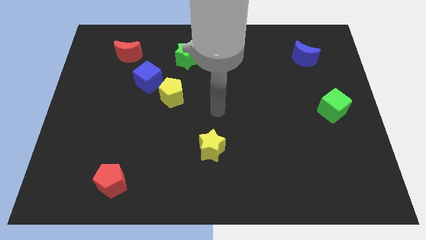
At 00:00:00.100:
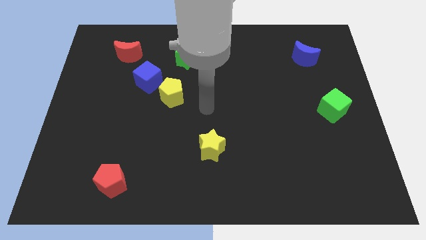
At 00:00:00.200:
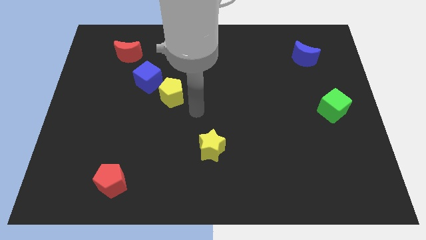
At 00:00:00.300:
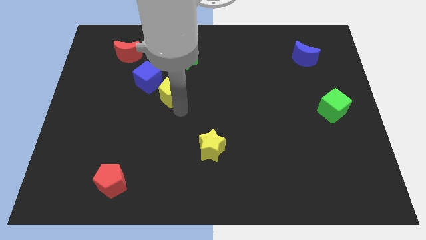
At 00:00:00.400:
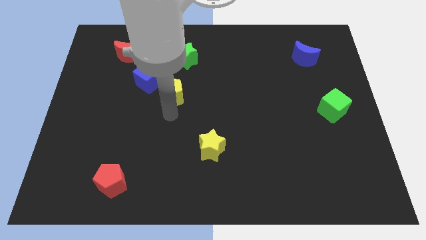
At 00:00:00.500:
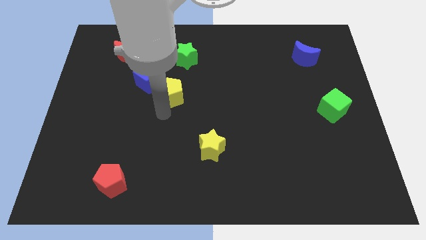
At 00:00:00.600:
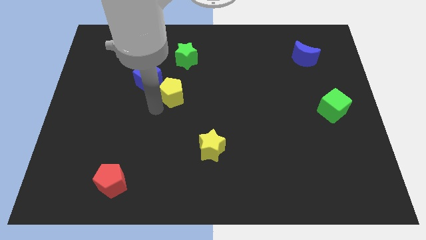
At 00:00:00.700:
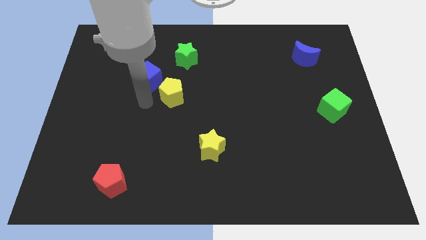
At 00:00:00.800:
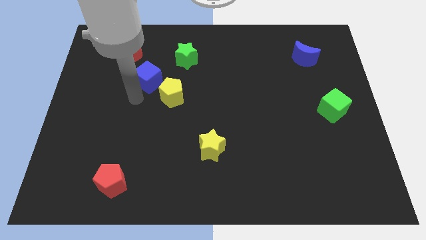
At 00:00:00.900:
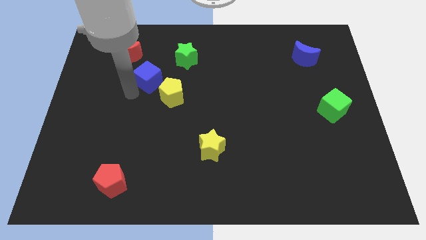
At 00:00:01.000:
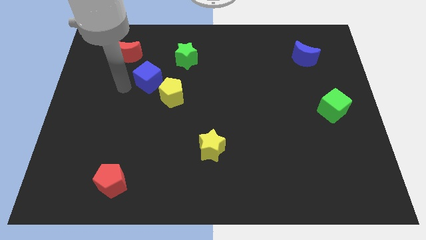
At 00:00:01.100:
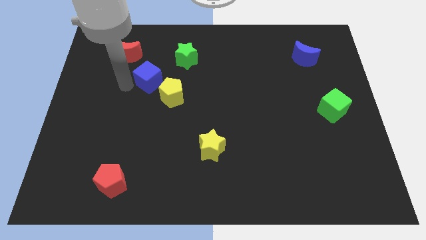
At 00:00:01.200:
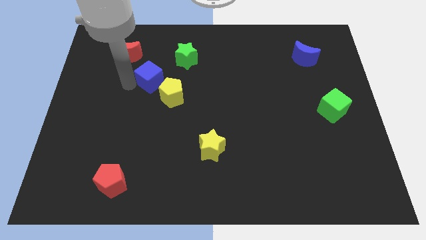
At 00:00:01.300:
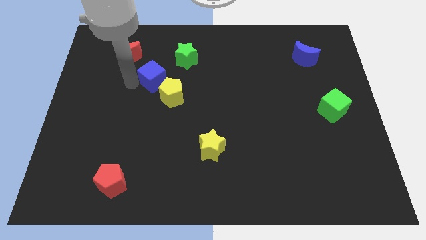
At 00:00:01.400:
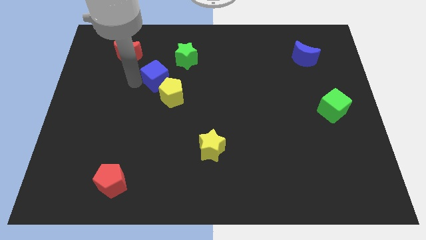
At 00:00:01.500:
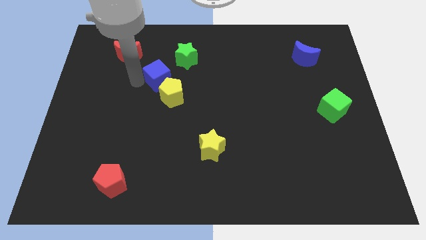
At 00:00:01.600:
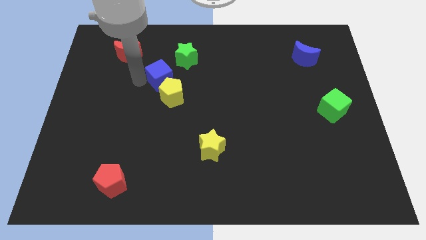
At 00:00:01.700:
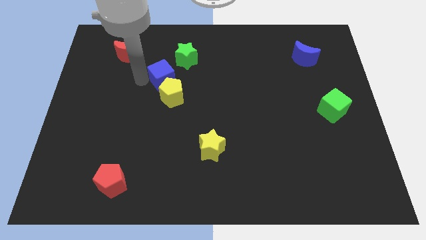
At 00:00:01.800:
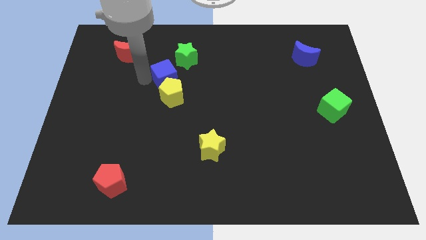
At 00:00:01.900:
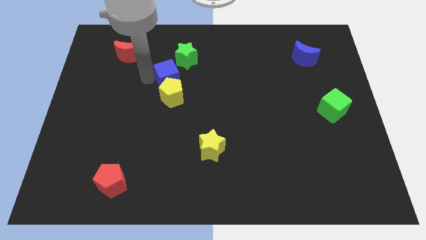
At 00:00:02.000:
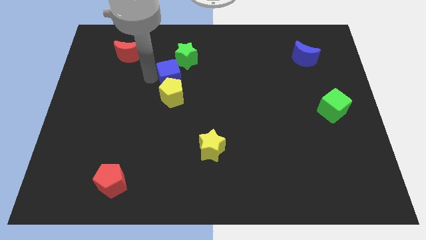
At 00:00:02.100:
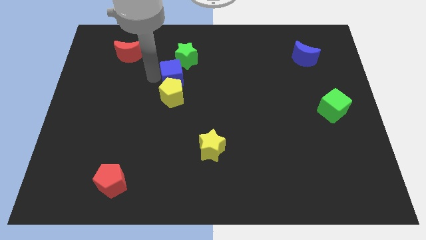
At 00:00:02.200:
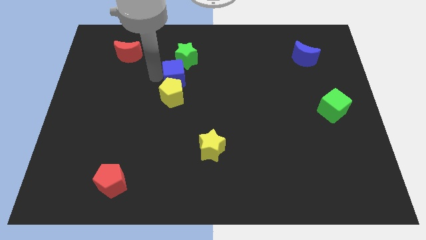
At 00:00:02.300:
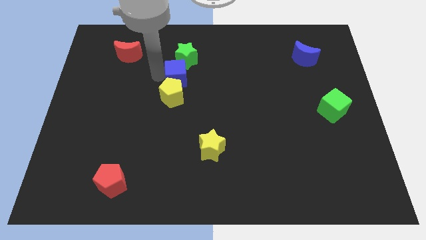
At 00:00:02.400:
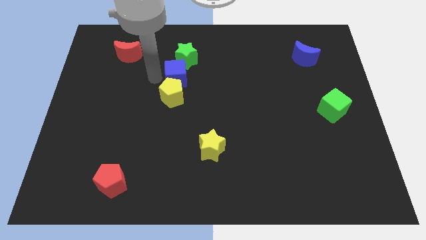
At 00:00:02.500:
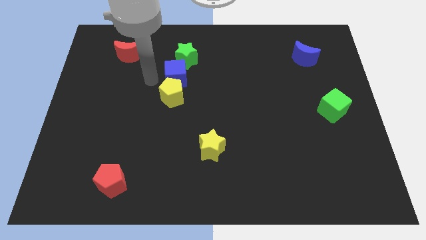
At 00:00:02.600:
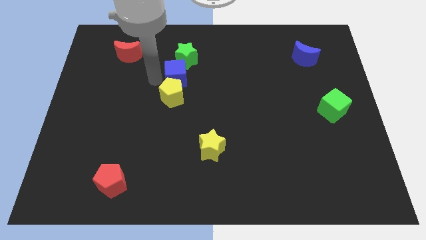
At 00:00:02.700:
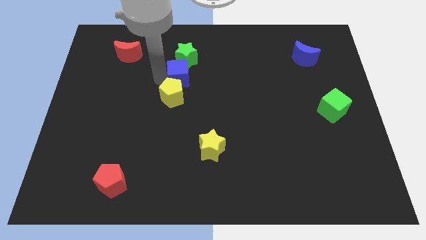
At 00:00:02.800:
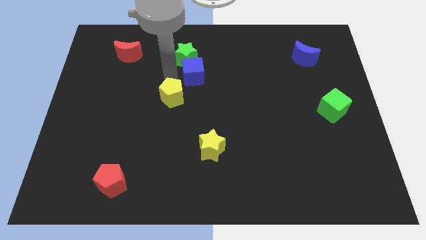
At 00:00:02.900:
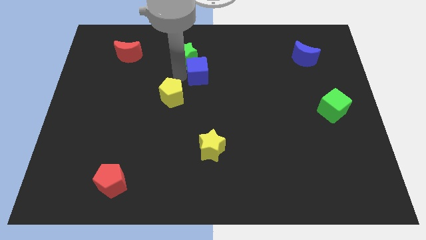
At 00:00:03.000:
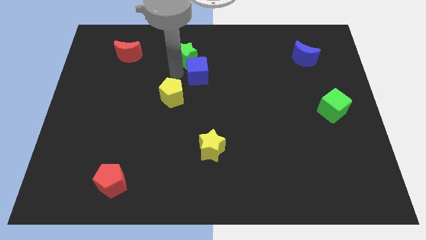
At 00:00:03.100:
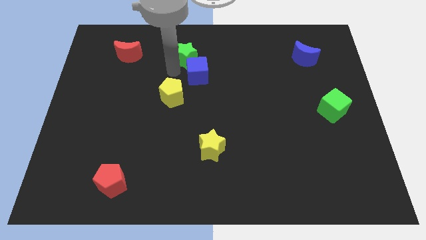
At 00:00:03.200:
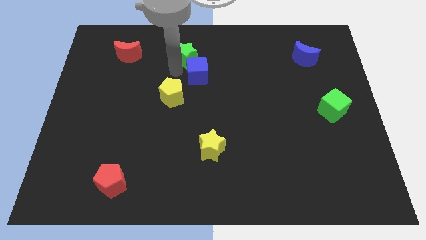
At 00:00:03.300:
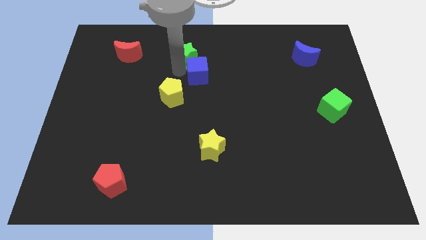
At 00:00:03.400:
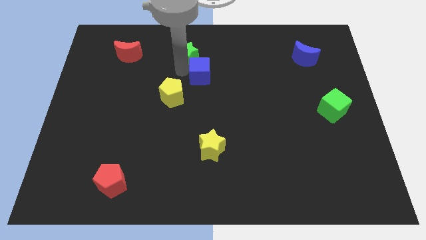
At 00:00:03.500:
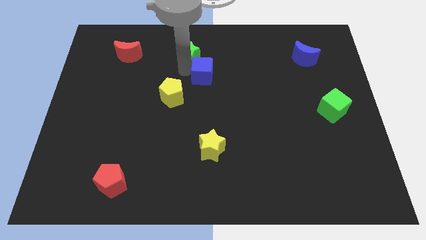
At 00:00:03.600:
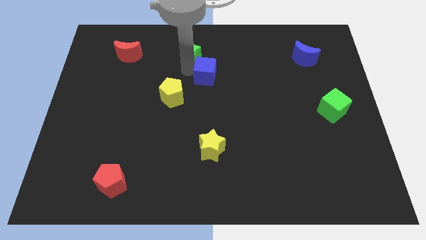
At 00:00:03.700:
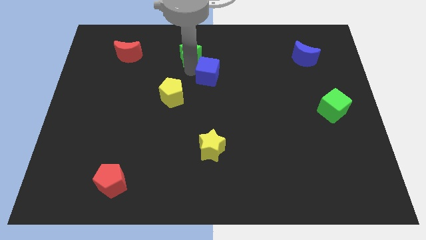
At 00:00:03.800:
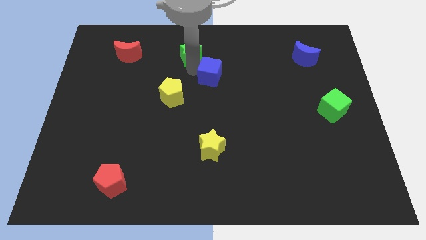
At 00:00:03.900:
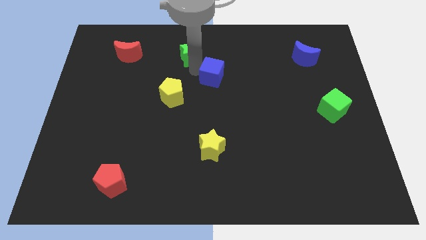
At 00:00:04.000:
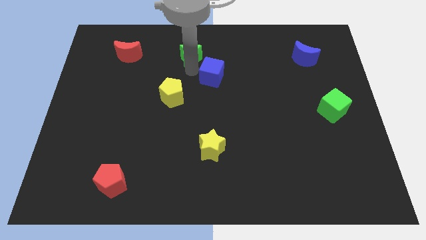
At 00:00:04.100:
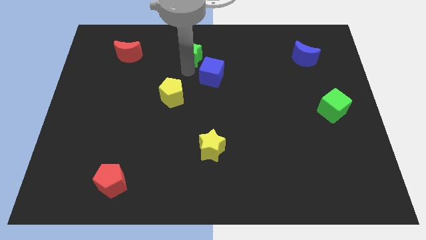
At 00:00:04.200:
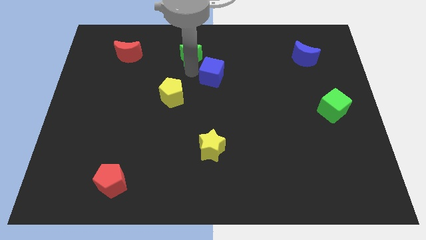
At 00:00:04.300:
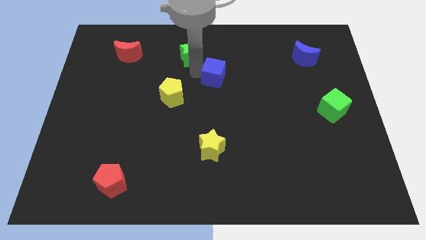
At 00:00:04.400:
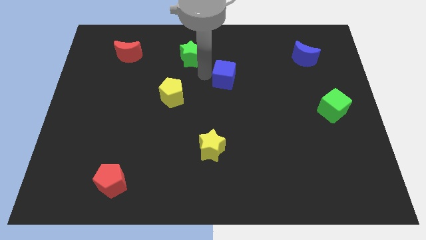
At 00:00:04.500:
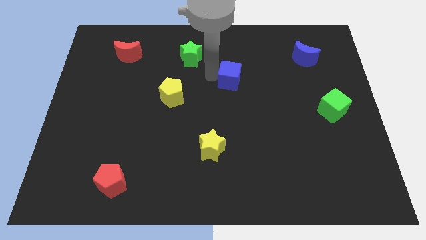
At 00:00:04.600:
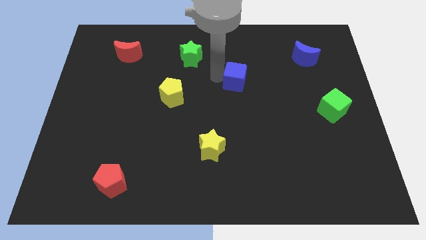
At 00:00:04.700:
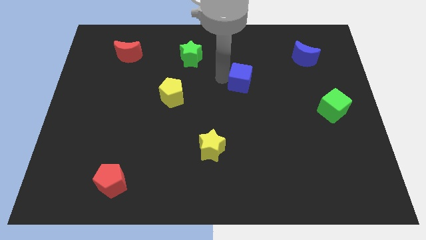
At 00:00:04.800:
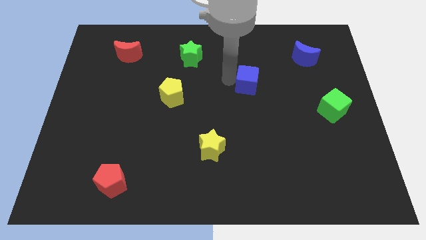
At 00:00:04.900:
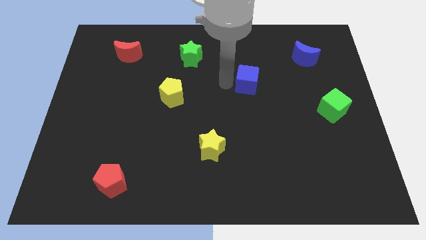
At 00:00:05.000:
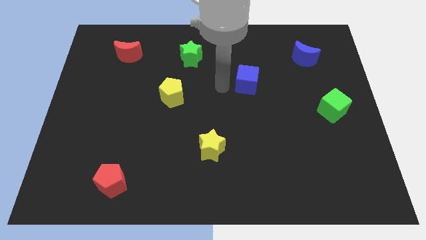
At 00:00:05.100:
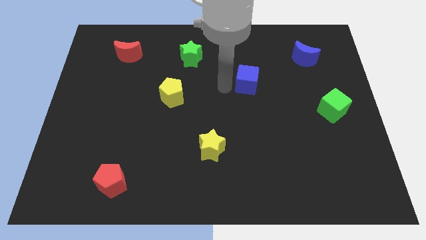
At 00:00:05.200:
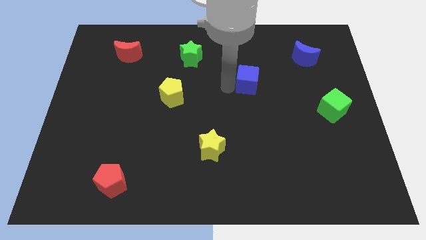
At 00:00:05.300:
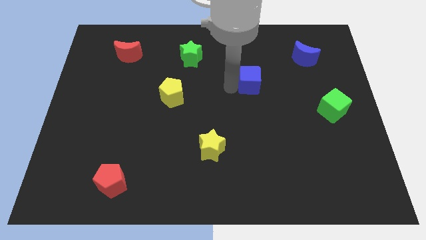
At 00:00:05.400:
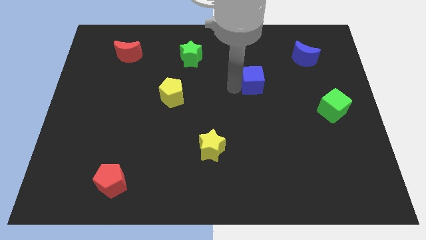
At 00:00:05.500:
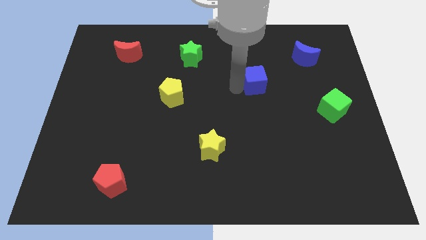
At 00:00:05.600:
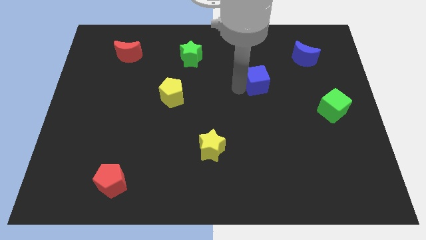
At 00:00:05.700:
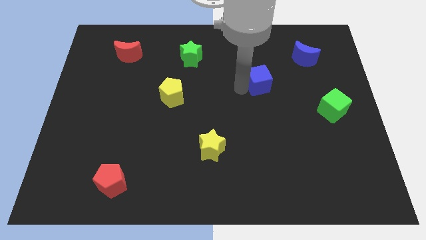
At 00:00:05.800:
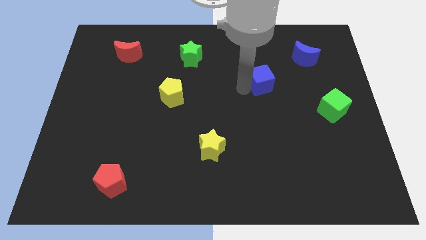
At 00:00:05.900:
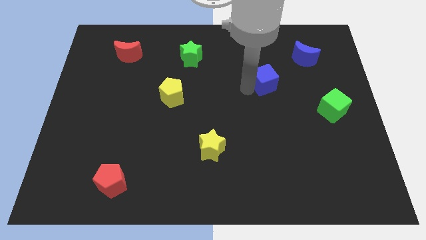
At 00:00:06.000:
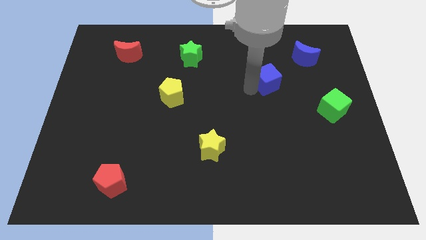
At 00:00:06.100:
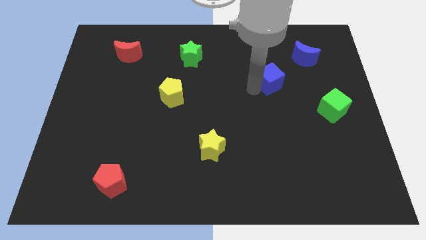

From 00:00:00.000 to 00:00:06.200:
slide the blue cube diagonally down and to the left of the blue moon

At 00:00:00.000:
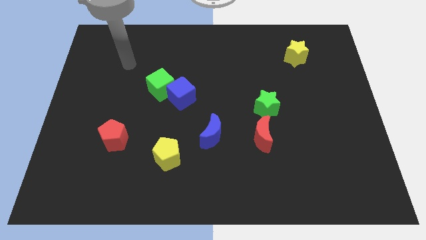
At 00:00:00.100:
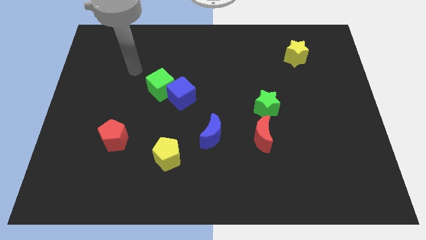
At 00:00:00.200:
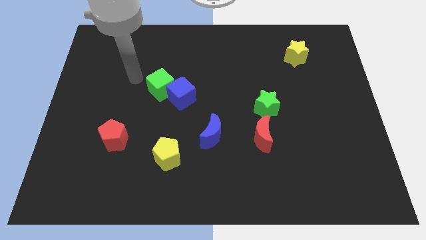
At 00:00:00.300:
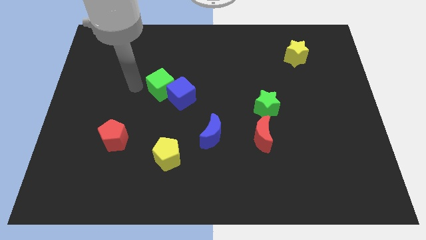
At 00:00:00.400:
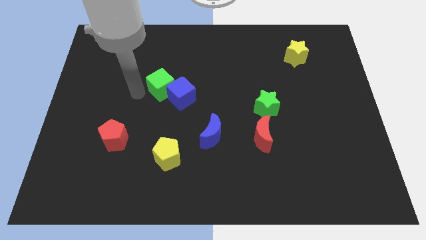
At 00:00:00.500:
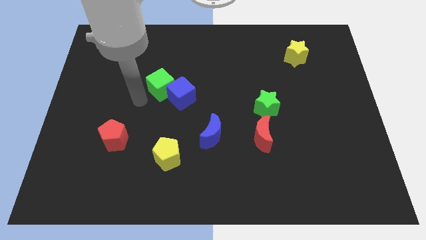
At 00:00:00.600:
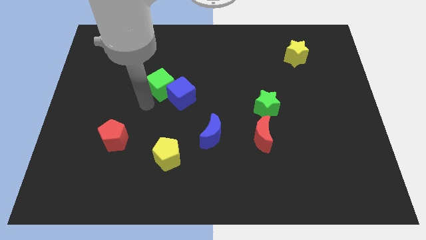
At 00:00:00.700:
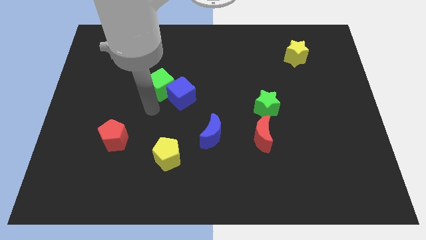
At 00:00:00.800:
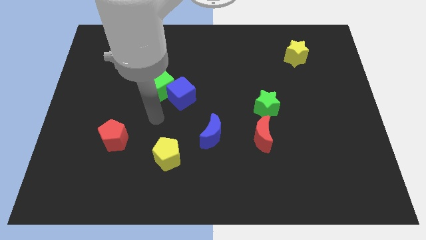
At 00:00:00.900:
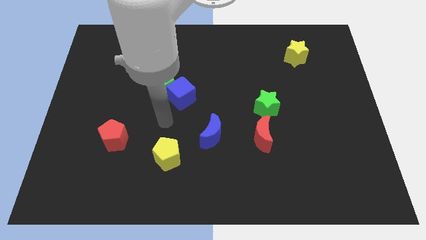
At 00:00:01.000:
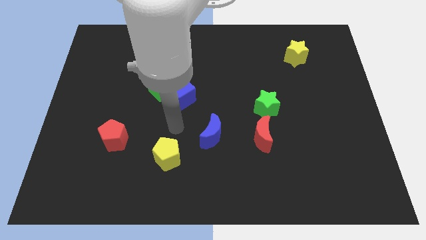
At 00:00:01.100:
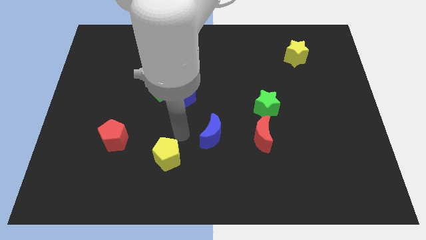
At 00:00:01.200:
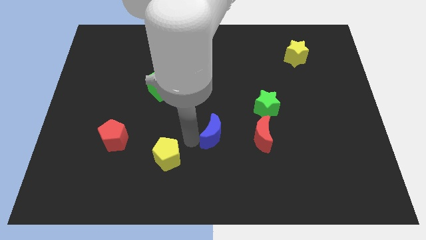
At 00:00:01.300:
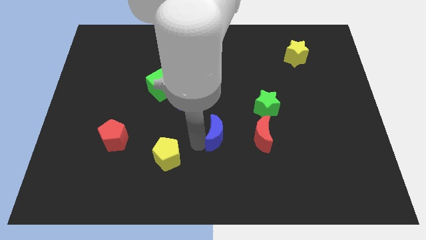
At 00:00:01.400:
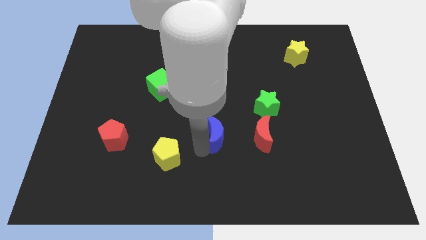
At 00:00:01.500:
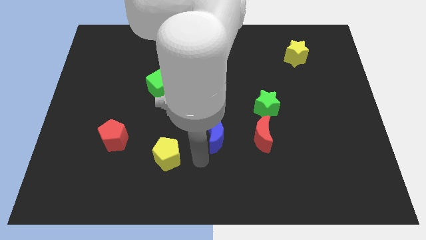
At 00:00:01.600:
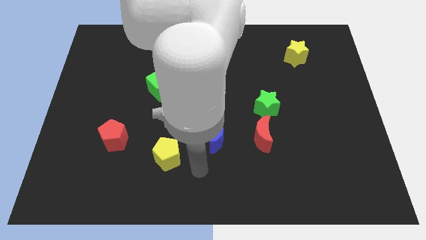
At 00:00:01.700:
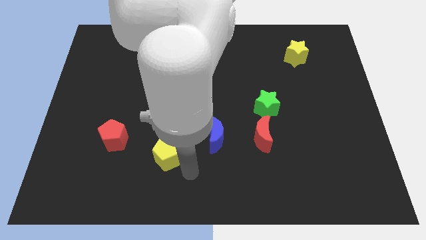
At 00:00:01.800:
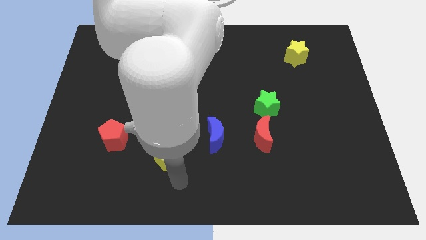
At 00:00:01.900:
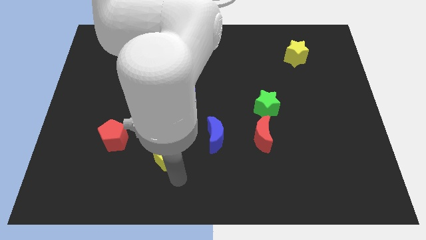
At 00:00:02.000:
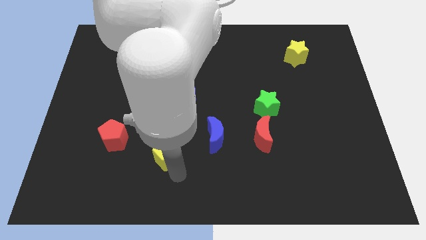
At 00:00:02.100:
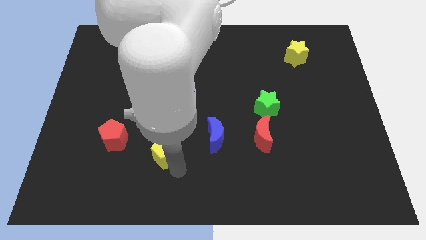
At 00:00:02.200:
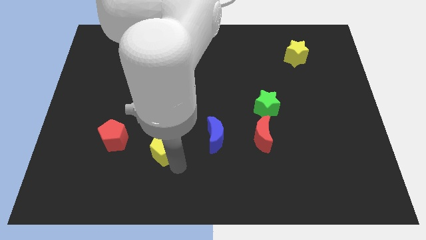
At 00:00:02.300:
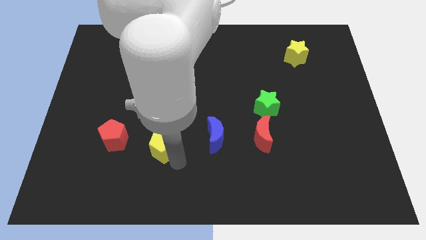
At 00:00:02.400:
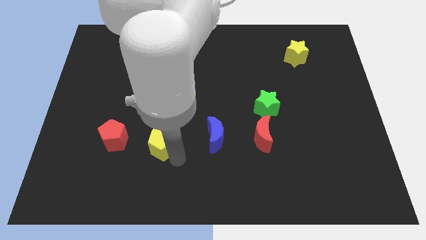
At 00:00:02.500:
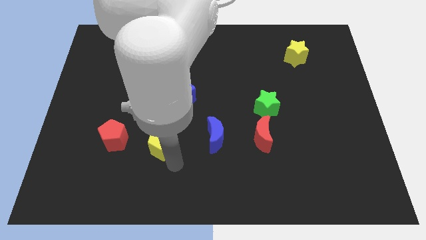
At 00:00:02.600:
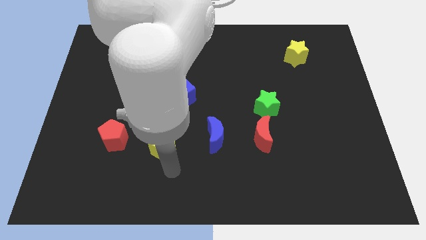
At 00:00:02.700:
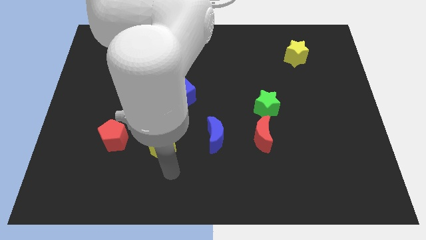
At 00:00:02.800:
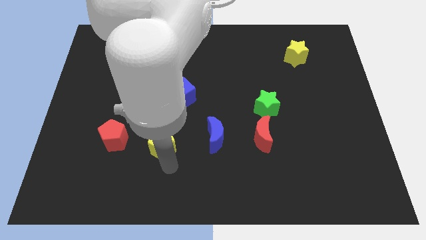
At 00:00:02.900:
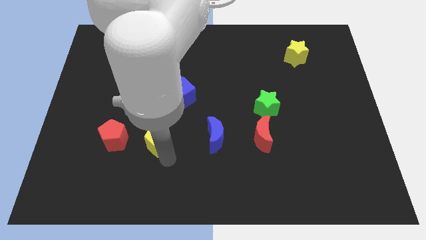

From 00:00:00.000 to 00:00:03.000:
put the yellow pentagon to the bottom of the green cube
